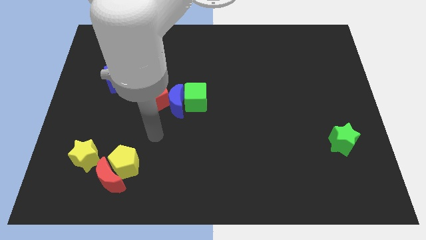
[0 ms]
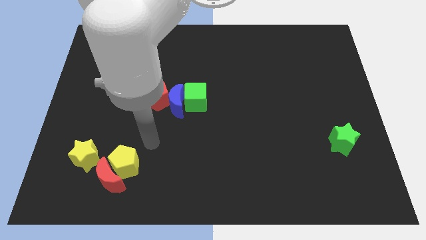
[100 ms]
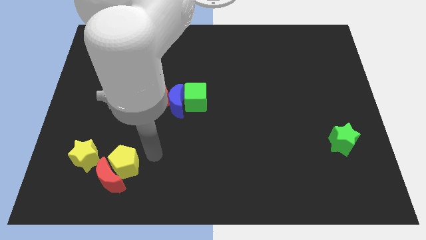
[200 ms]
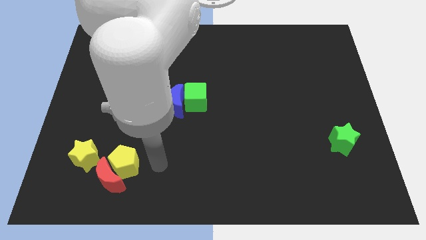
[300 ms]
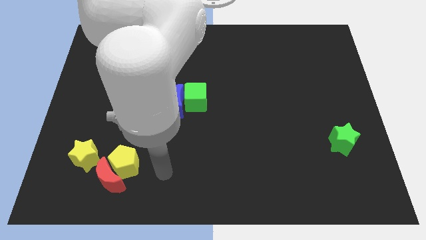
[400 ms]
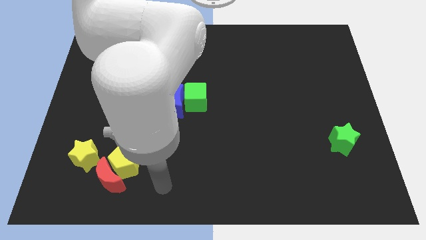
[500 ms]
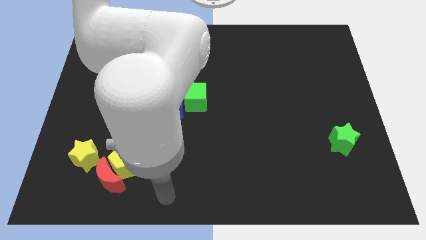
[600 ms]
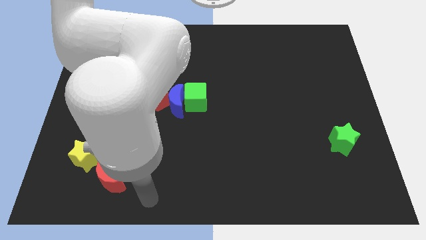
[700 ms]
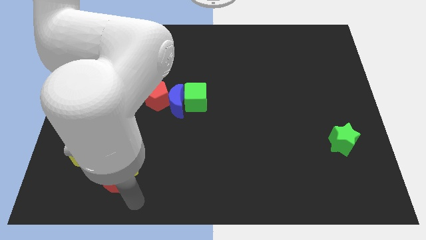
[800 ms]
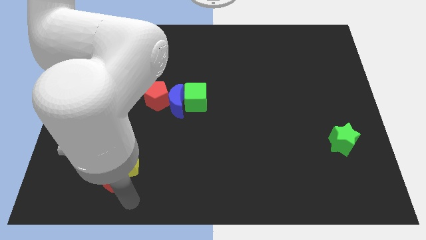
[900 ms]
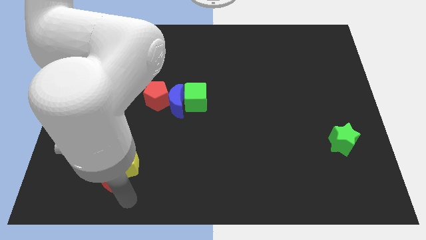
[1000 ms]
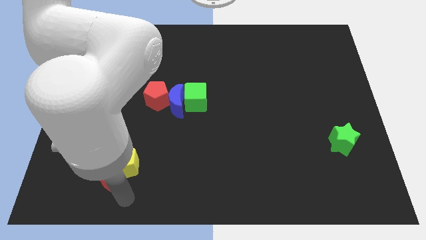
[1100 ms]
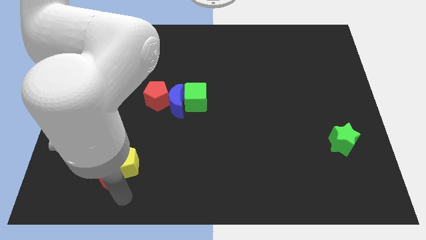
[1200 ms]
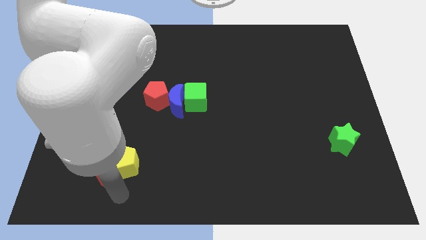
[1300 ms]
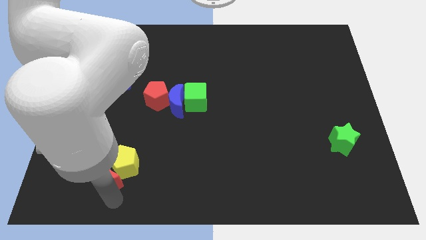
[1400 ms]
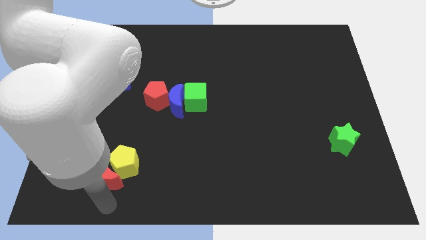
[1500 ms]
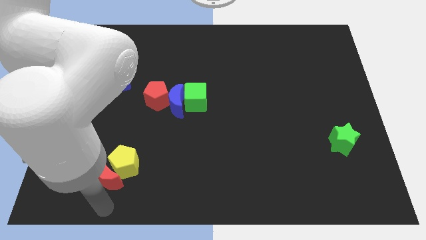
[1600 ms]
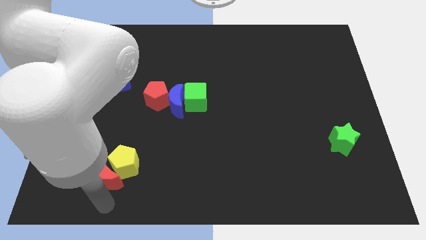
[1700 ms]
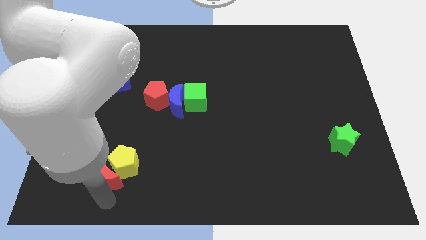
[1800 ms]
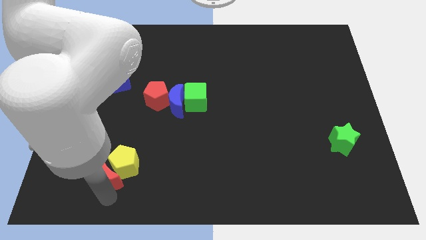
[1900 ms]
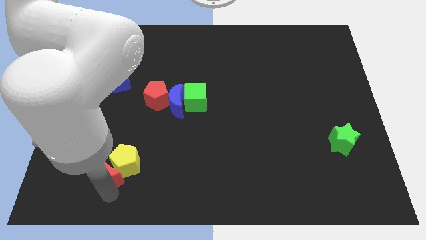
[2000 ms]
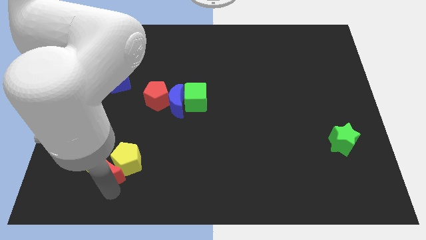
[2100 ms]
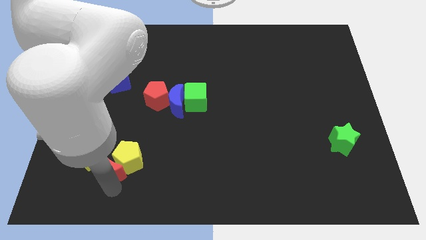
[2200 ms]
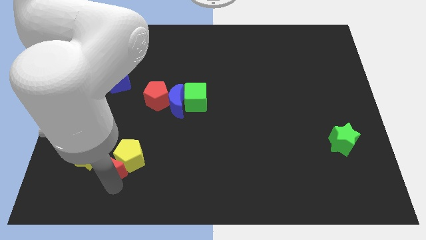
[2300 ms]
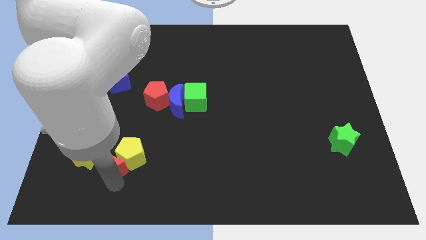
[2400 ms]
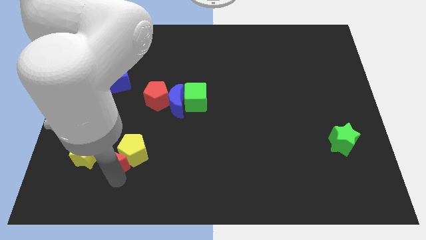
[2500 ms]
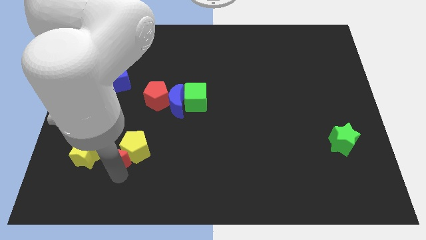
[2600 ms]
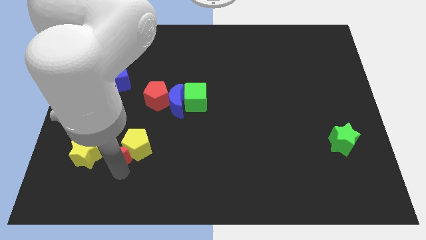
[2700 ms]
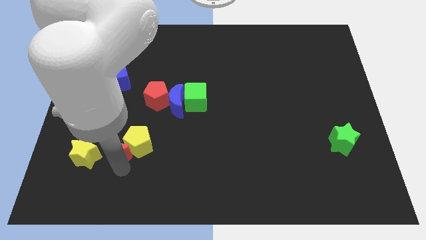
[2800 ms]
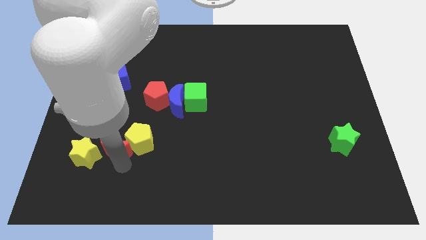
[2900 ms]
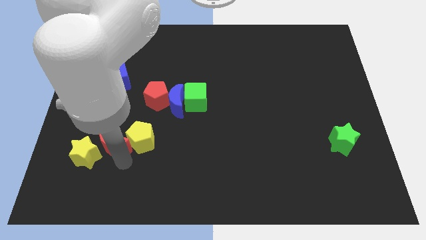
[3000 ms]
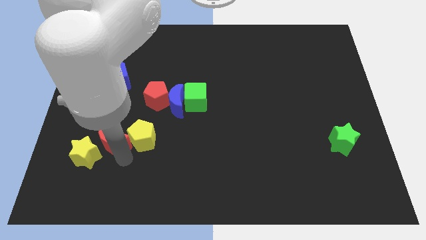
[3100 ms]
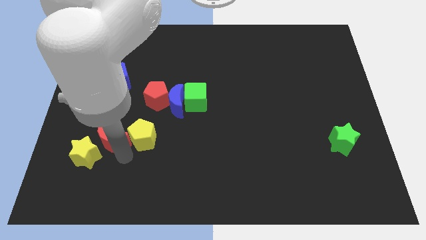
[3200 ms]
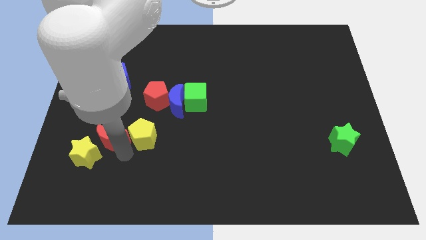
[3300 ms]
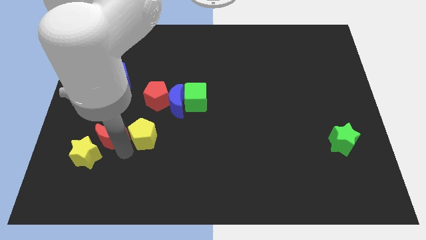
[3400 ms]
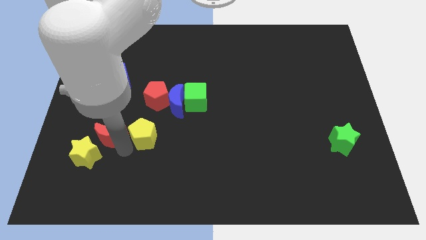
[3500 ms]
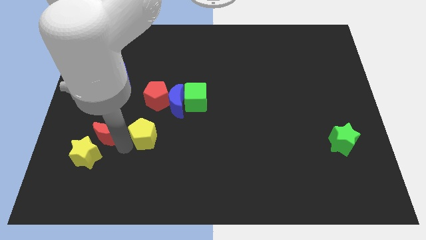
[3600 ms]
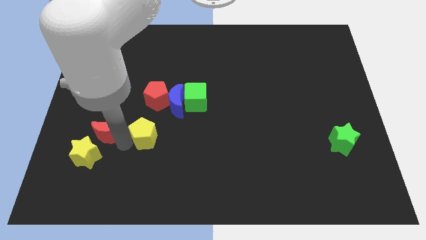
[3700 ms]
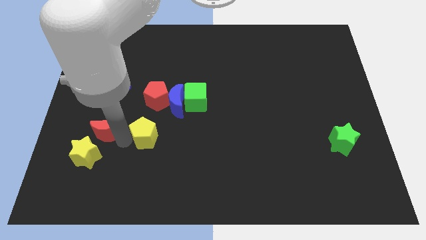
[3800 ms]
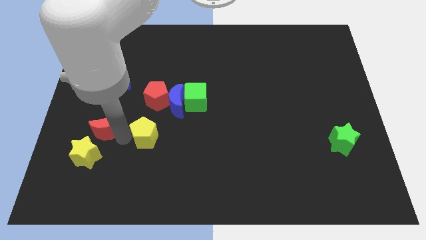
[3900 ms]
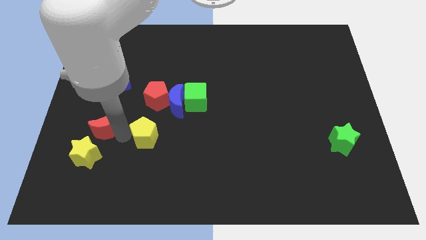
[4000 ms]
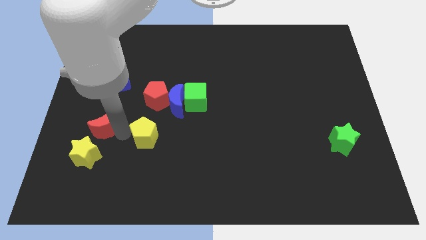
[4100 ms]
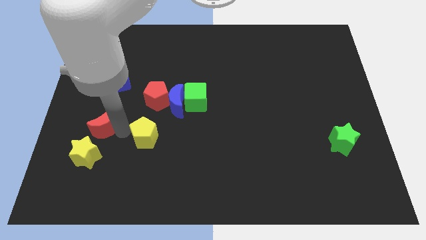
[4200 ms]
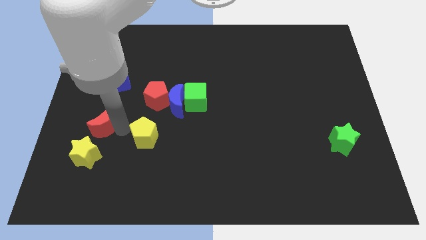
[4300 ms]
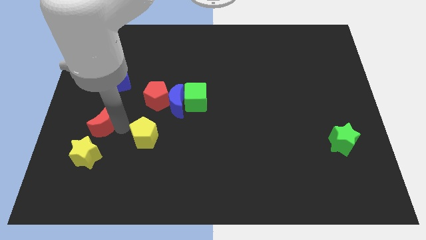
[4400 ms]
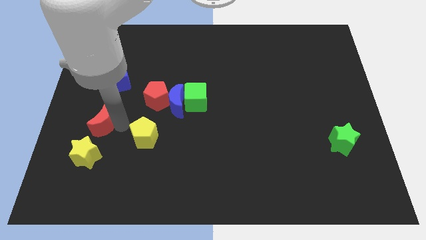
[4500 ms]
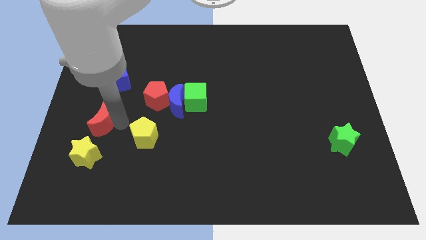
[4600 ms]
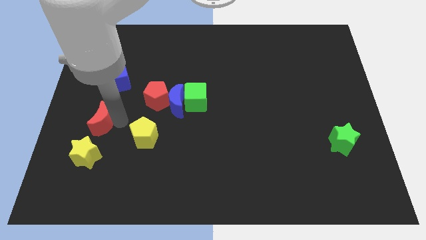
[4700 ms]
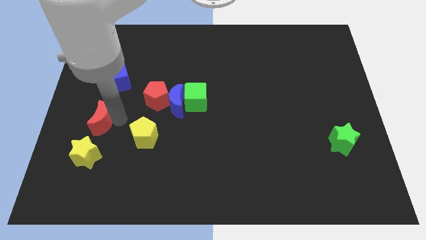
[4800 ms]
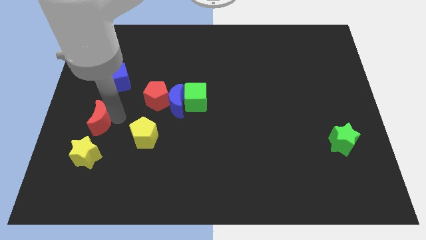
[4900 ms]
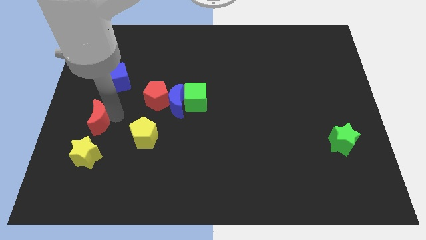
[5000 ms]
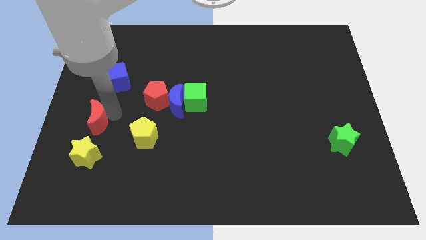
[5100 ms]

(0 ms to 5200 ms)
push the red moon to the left side

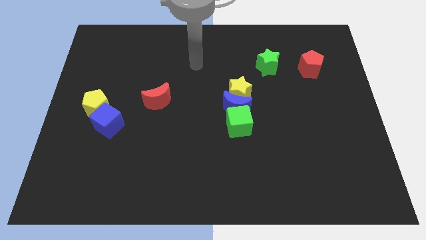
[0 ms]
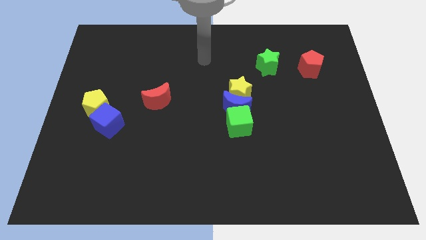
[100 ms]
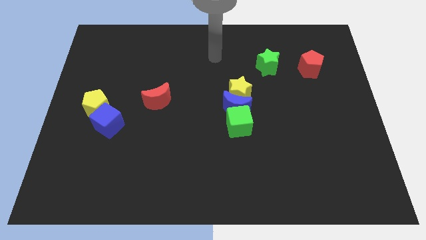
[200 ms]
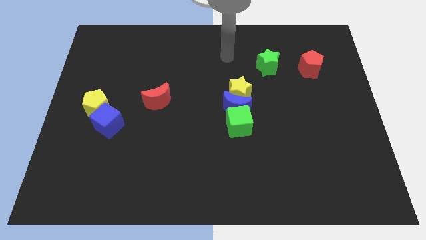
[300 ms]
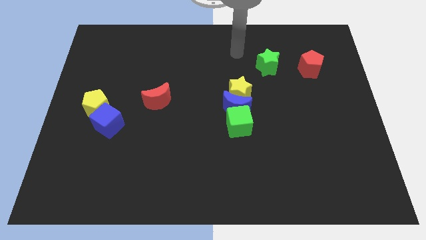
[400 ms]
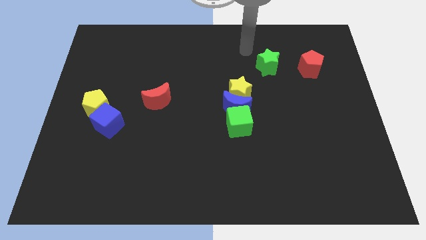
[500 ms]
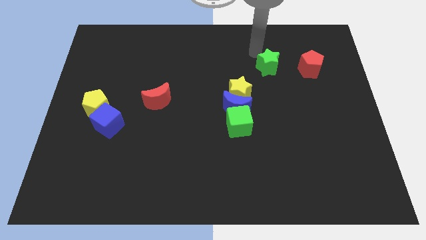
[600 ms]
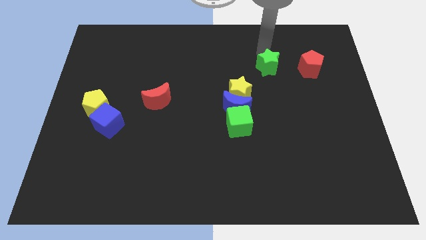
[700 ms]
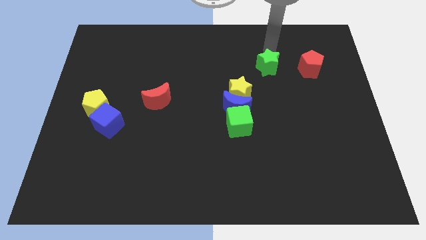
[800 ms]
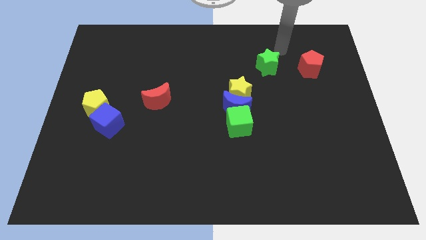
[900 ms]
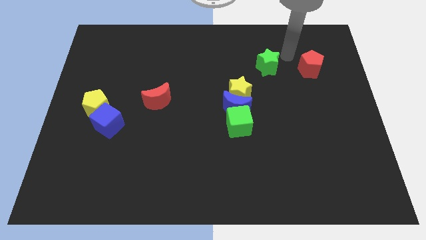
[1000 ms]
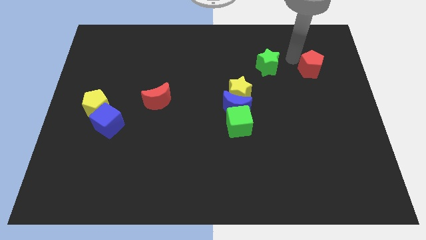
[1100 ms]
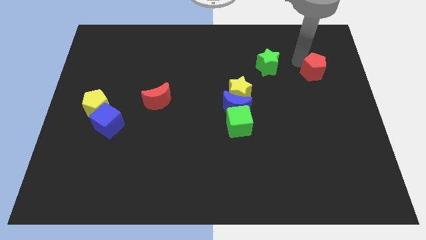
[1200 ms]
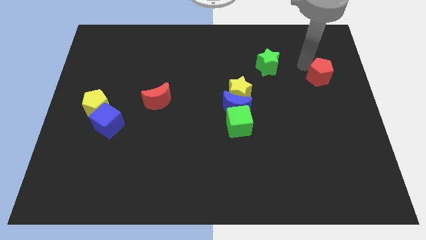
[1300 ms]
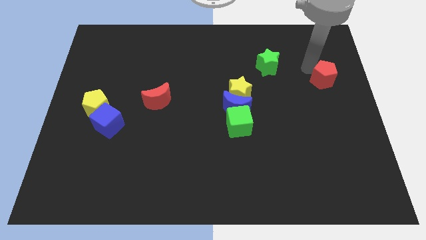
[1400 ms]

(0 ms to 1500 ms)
put the red pentagon to the center right
